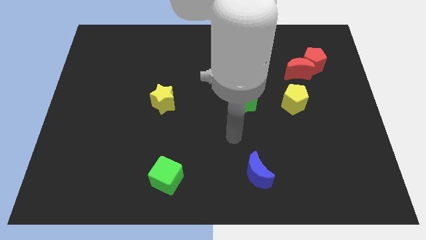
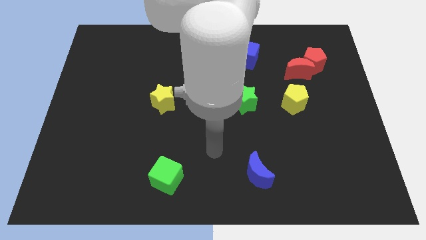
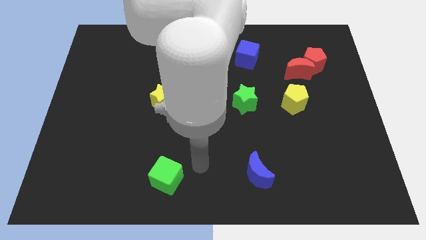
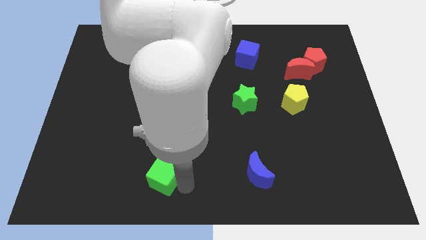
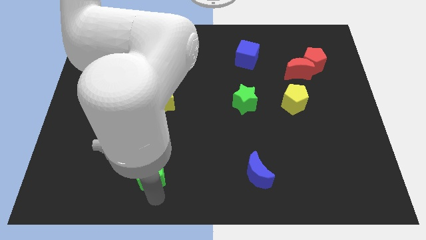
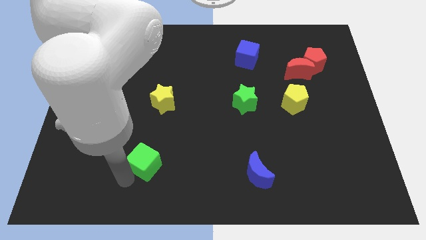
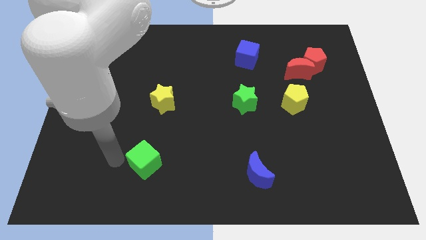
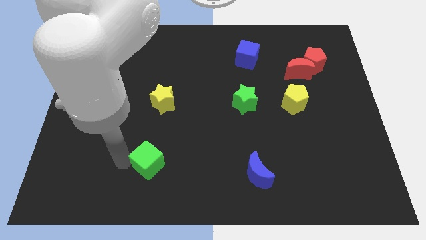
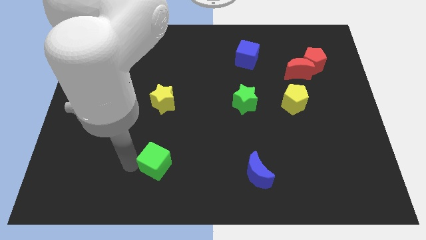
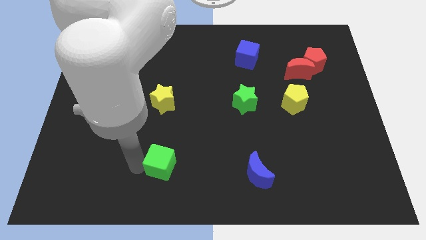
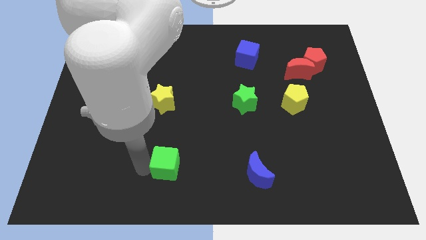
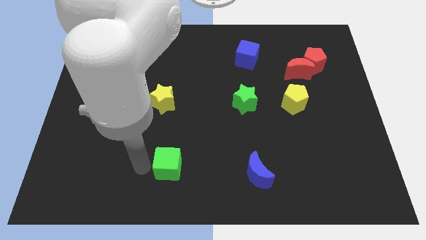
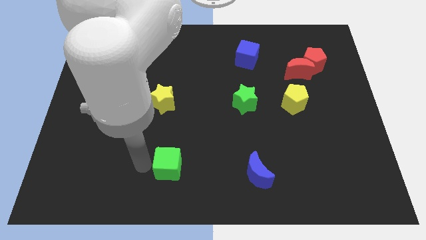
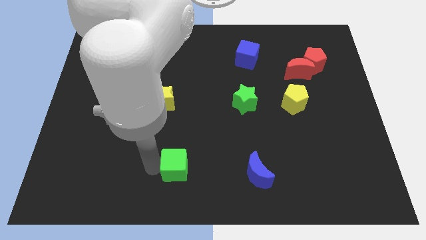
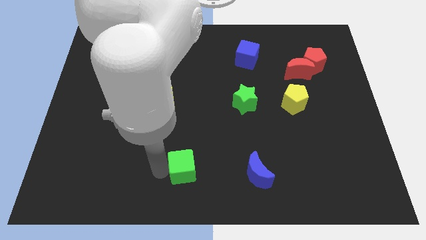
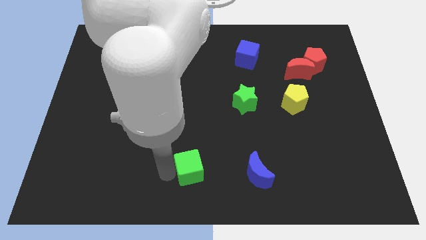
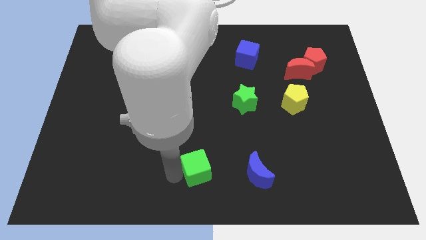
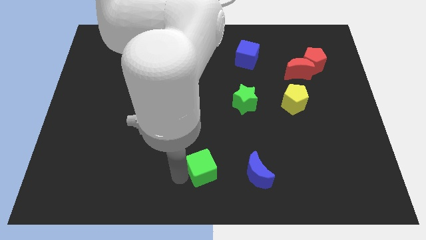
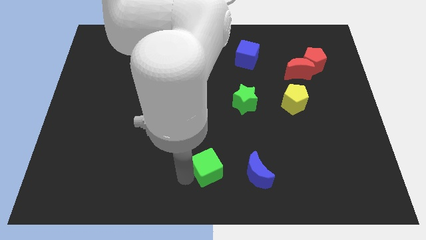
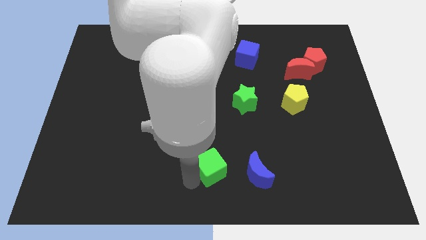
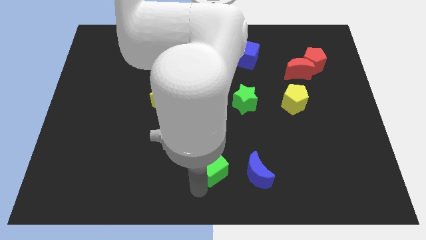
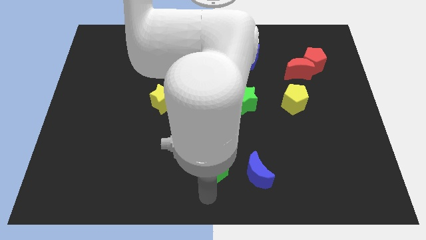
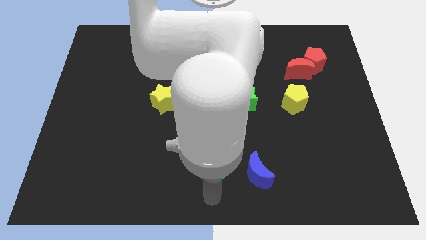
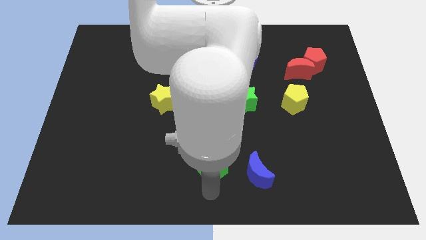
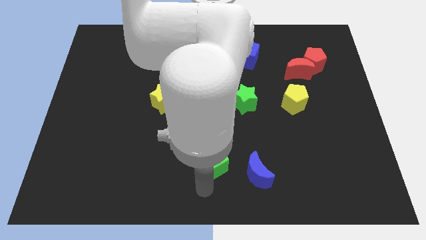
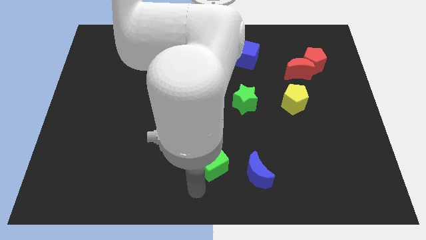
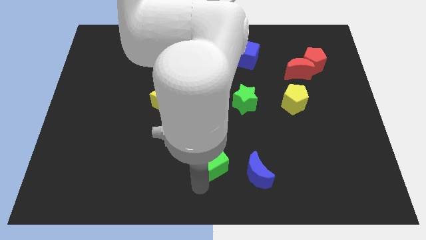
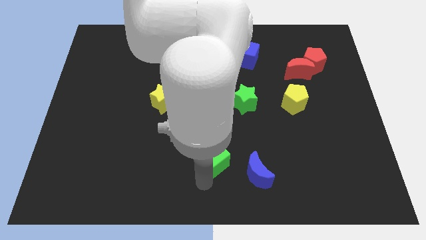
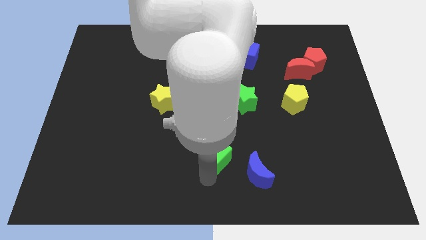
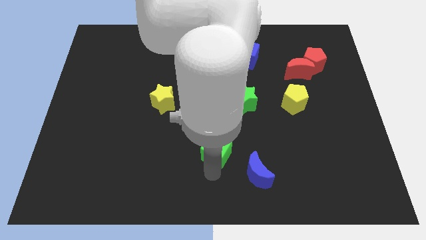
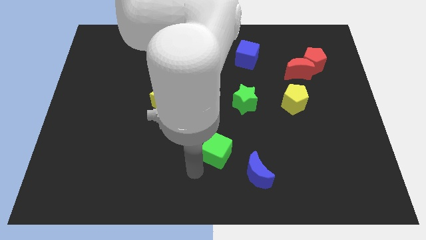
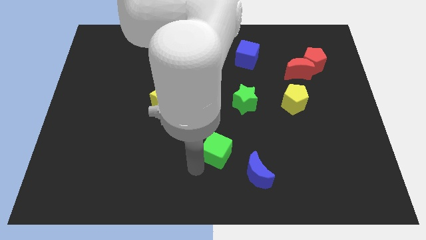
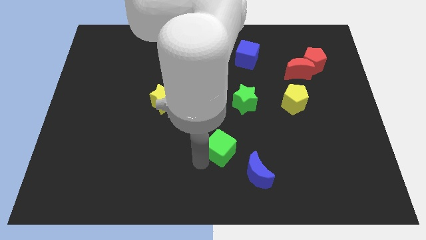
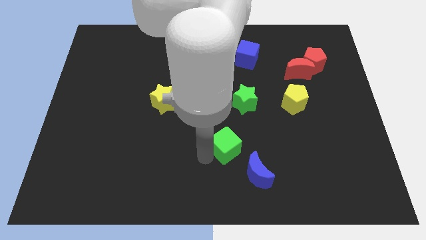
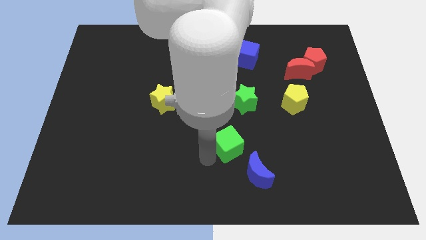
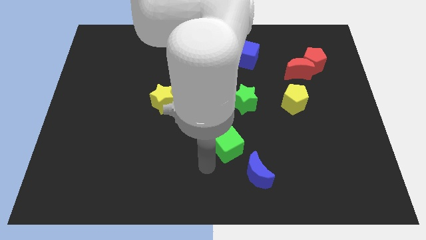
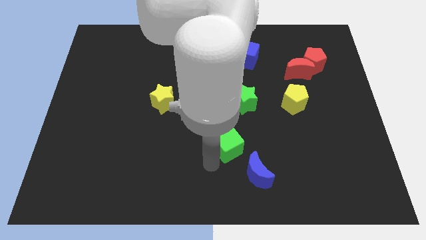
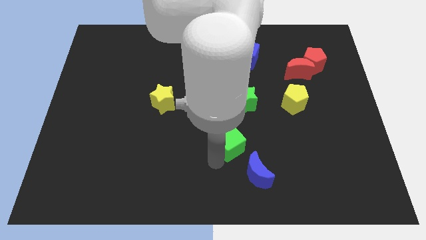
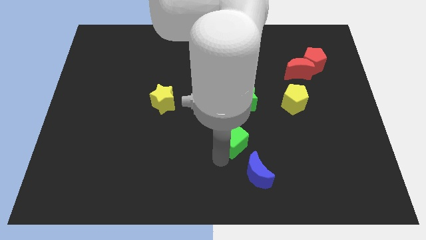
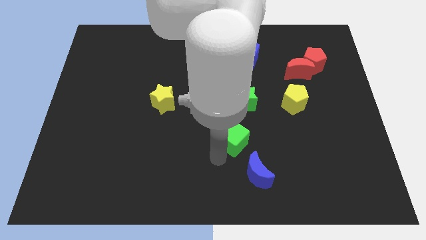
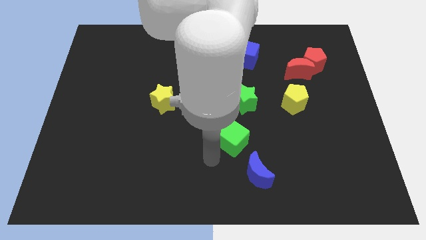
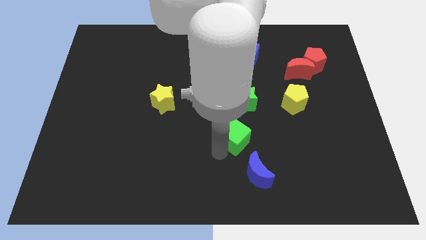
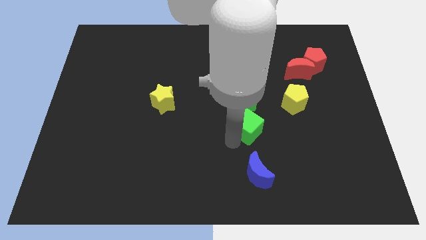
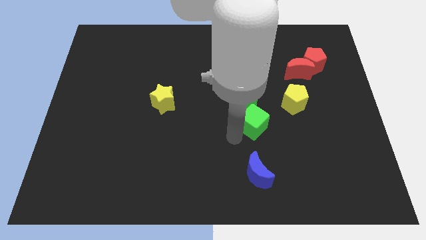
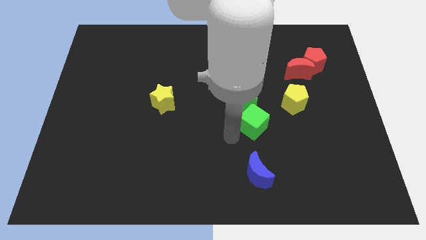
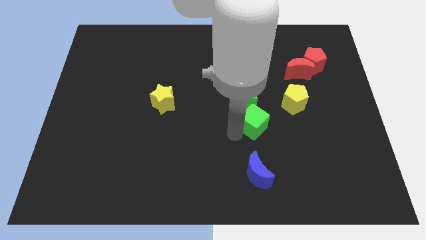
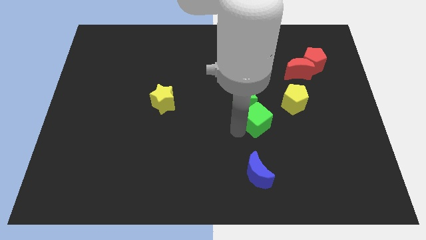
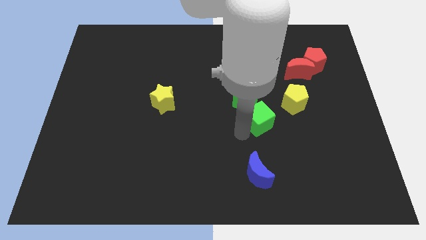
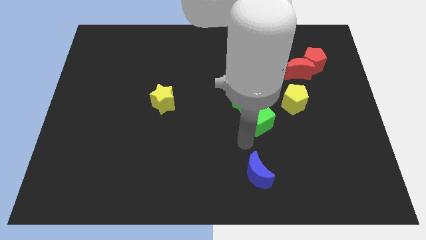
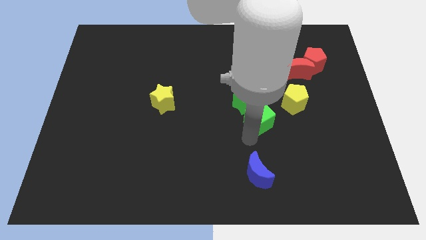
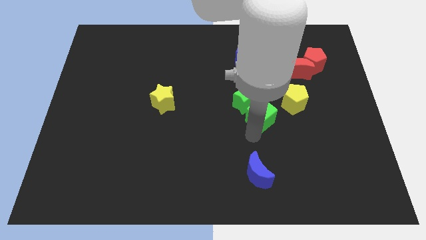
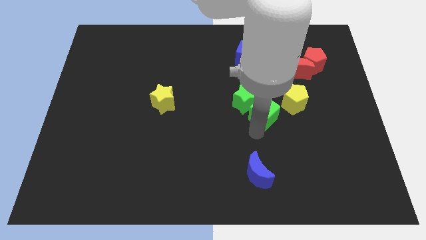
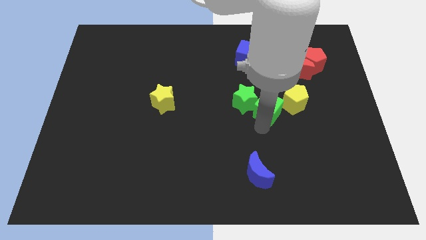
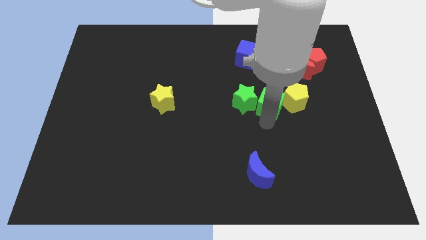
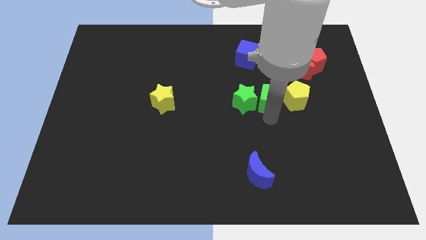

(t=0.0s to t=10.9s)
slide the green cube to the top left side of the yellow pentagon

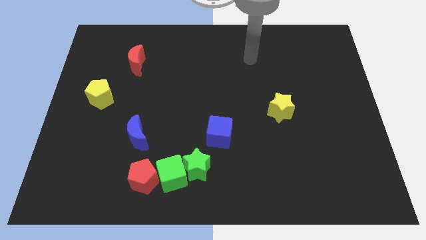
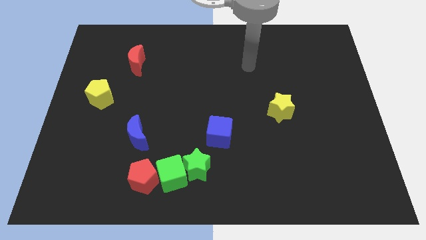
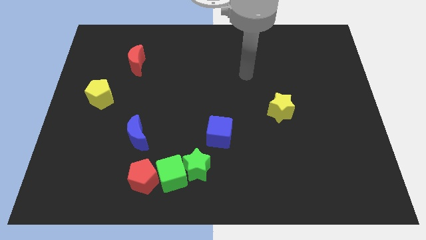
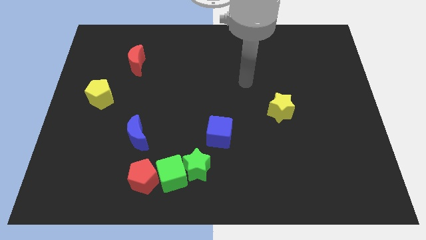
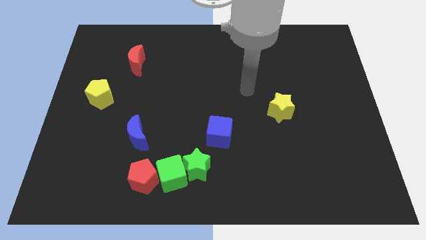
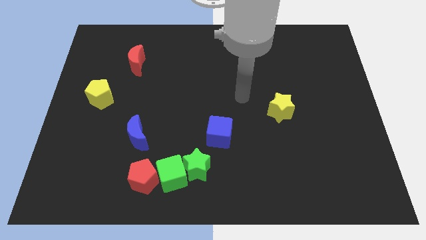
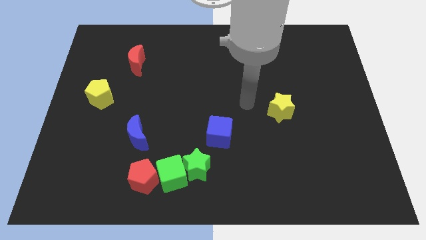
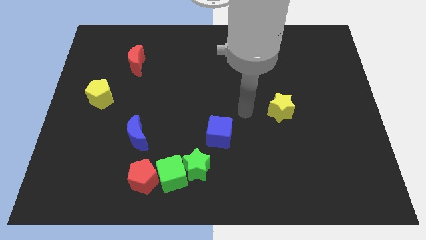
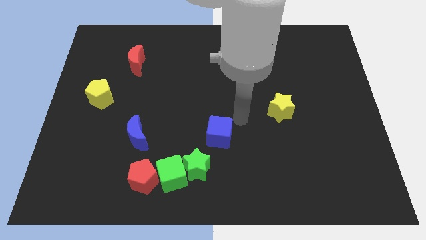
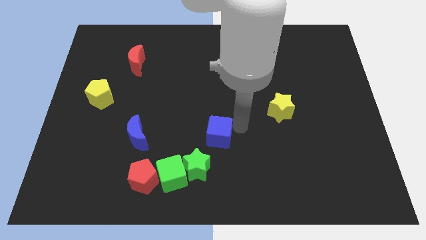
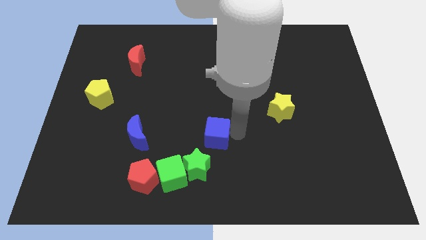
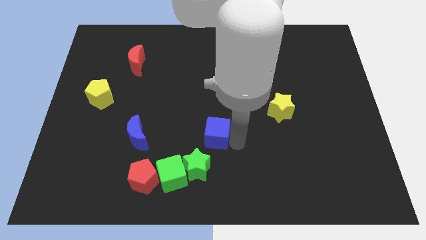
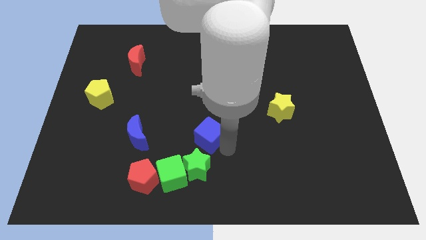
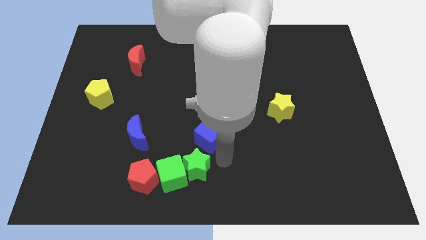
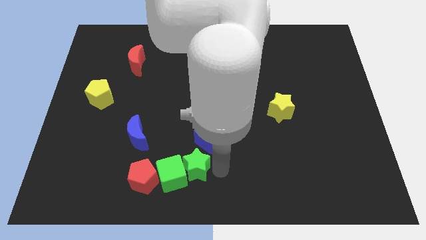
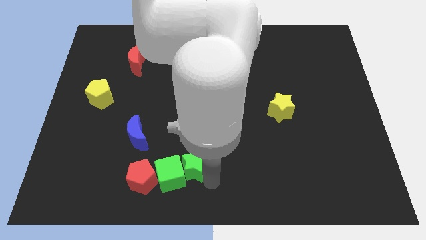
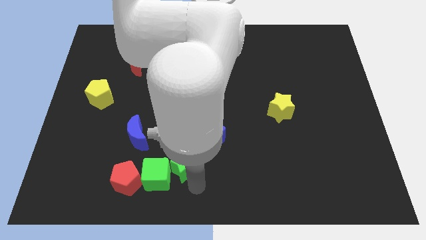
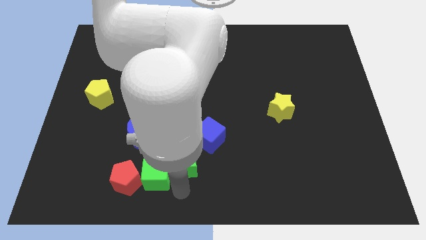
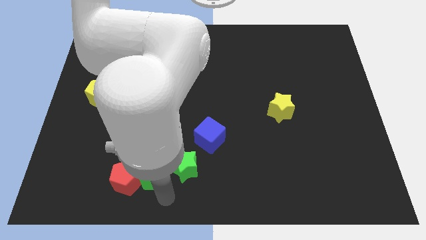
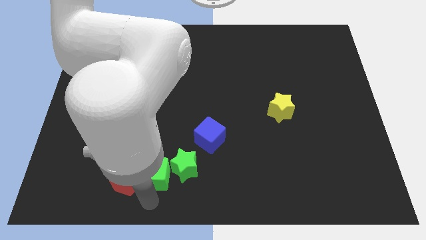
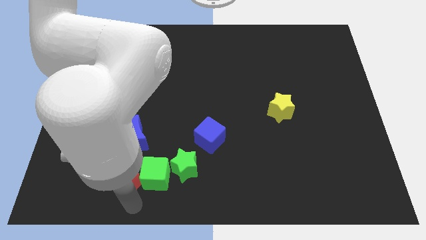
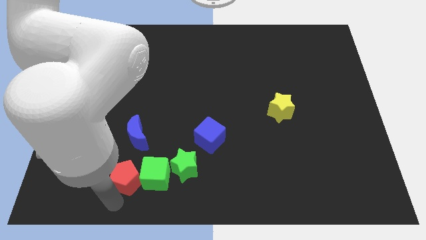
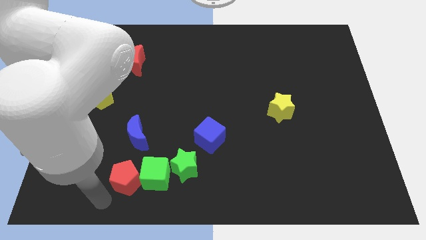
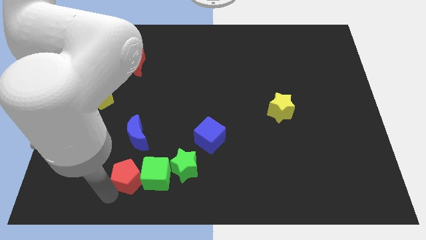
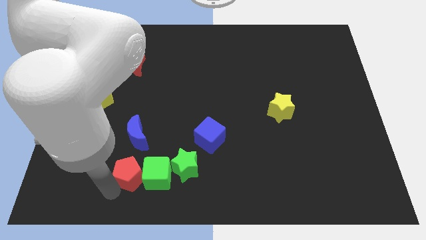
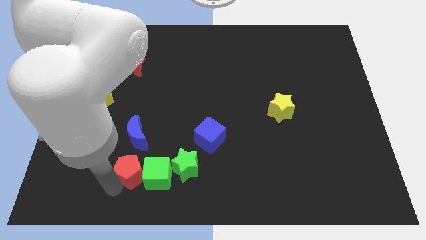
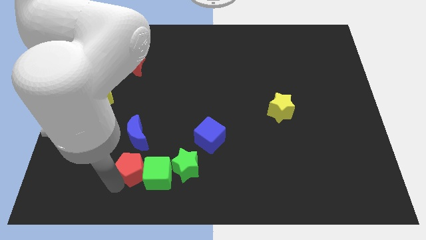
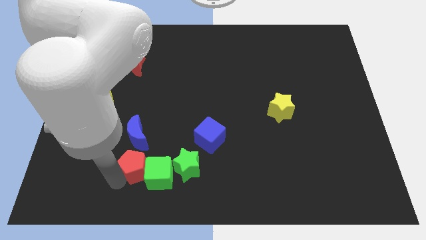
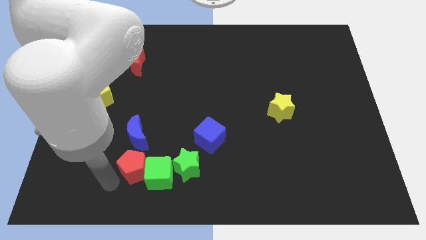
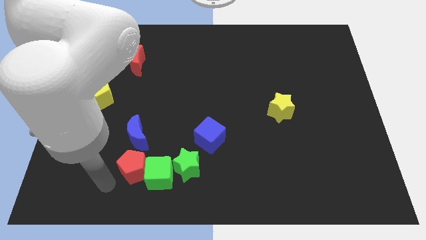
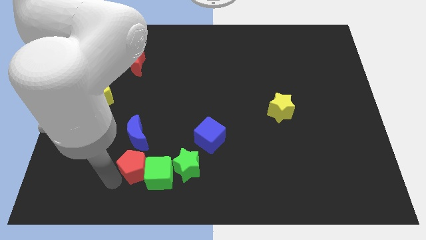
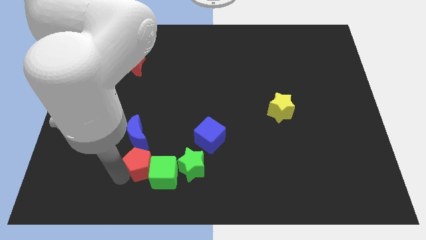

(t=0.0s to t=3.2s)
put the red pentagon diagonally down and to the right of the blue moon
